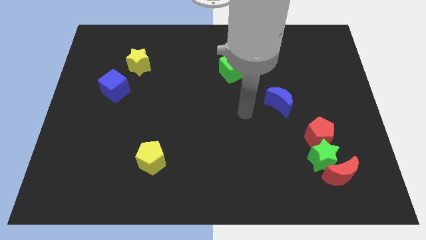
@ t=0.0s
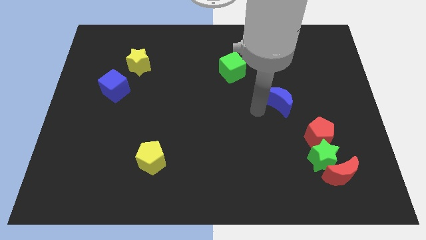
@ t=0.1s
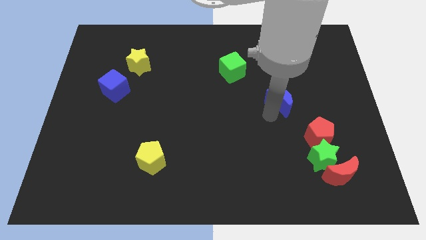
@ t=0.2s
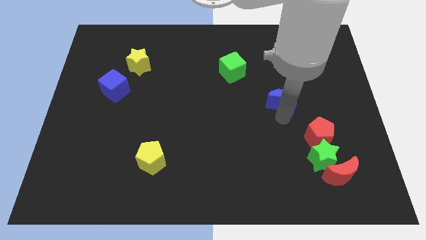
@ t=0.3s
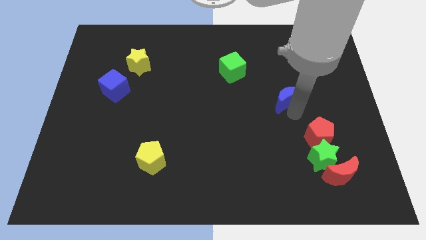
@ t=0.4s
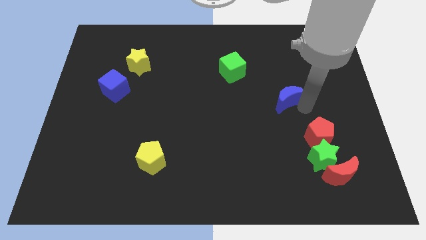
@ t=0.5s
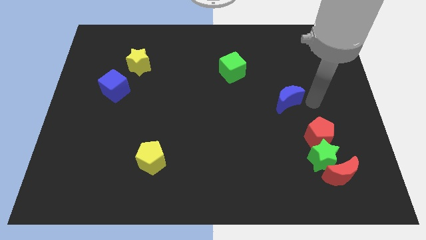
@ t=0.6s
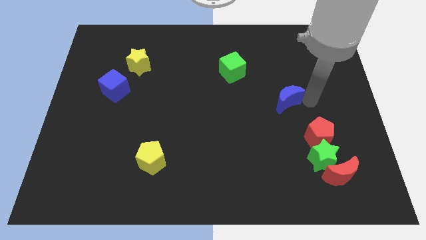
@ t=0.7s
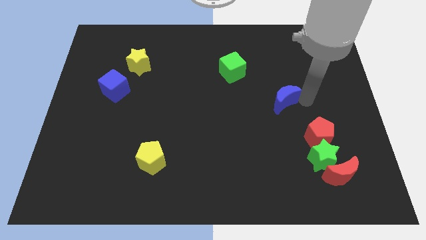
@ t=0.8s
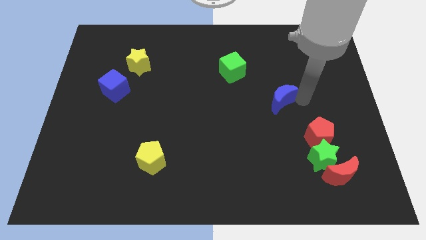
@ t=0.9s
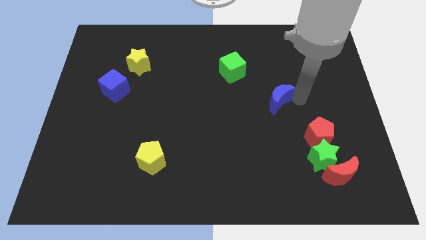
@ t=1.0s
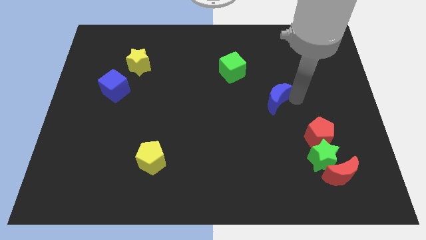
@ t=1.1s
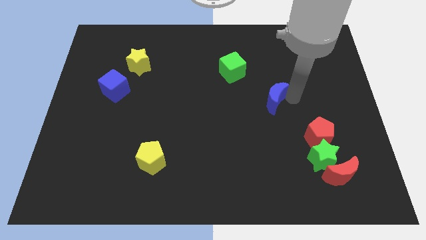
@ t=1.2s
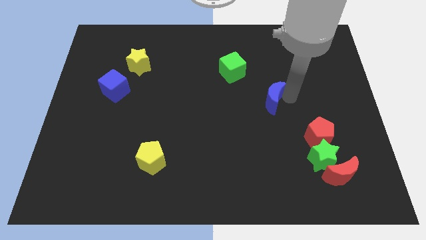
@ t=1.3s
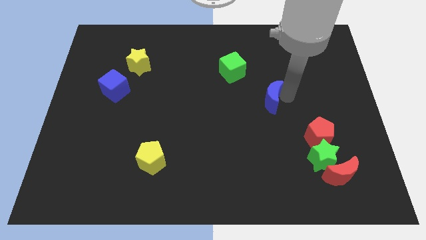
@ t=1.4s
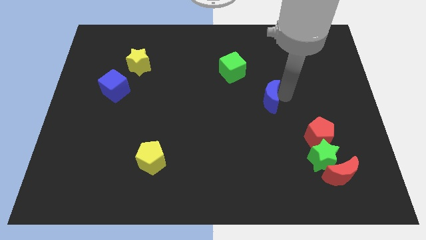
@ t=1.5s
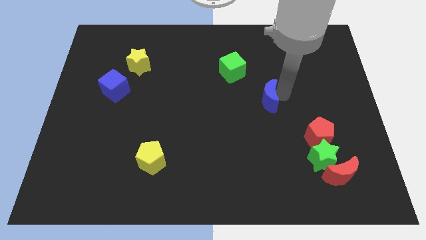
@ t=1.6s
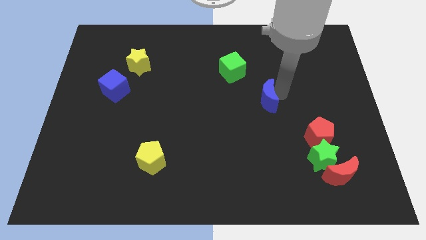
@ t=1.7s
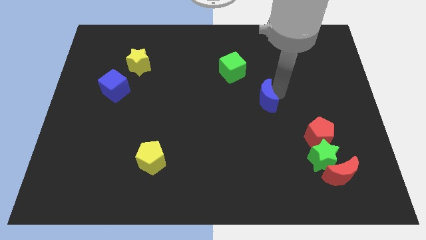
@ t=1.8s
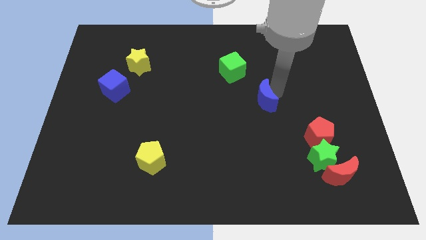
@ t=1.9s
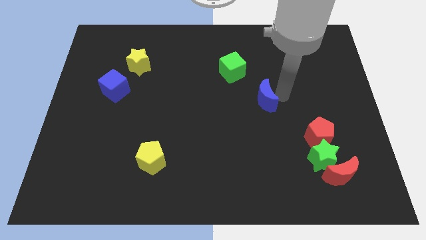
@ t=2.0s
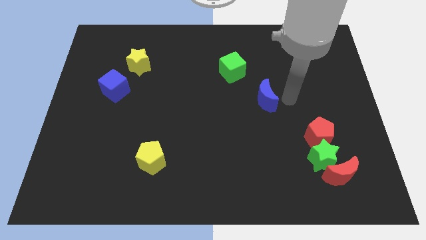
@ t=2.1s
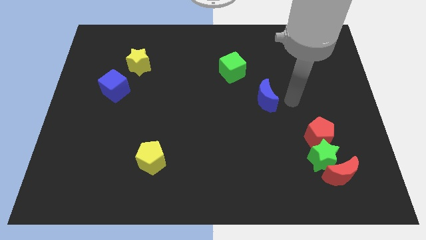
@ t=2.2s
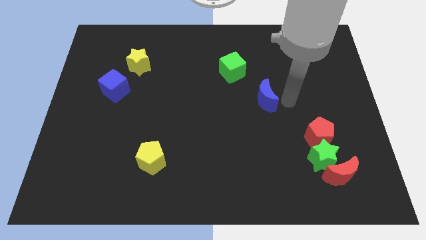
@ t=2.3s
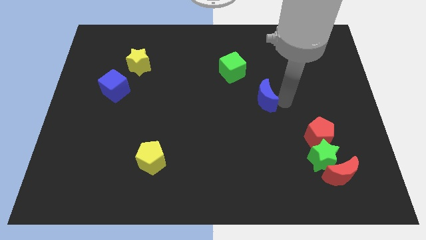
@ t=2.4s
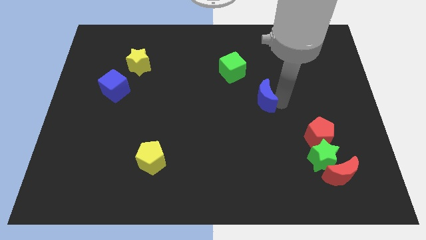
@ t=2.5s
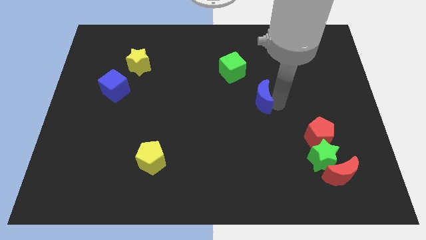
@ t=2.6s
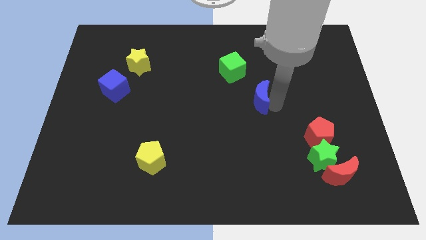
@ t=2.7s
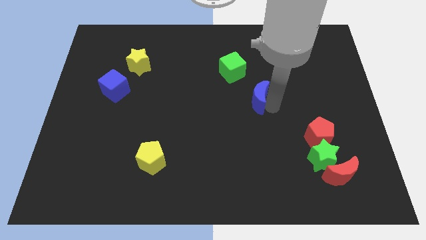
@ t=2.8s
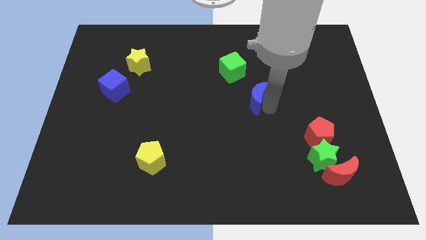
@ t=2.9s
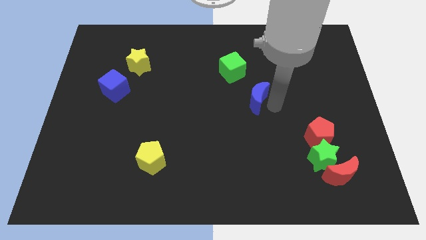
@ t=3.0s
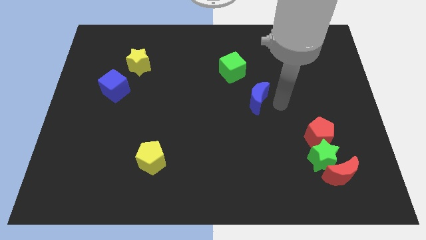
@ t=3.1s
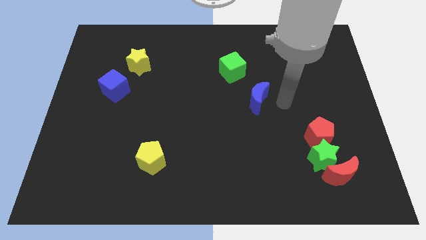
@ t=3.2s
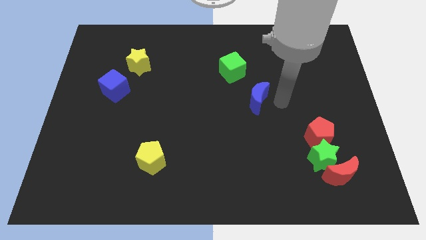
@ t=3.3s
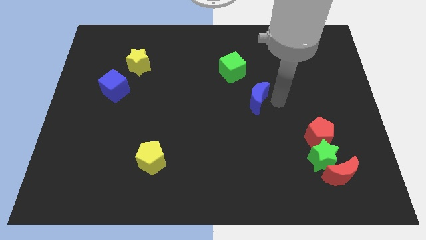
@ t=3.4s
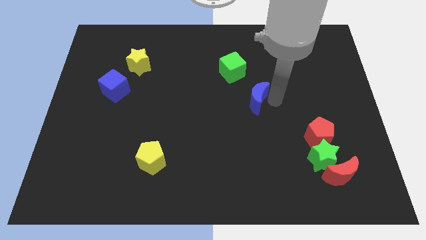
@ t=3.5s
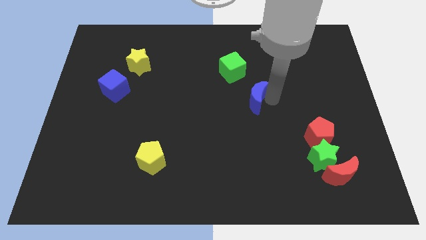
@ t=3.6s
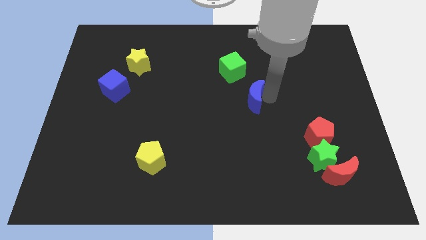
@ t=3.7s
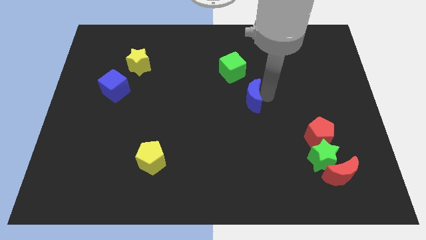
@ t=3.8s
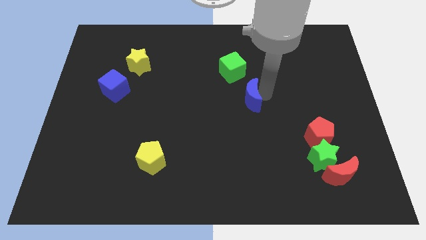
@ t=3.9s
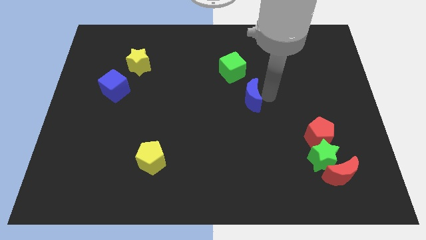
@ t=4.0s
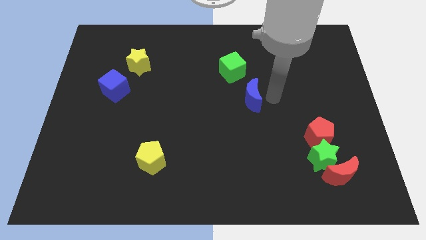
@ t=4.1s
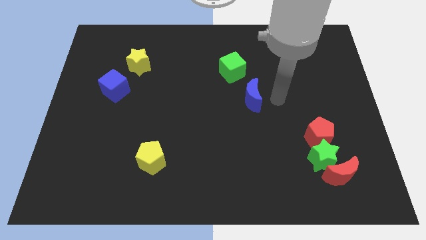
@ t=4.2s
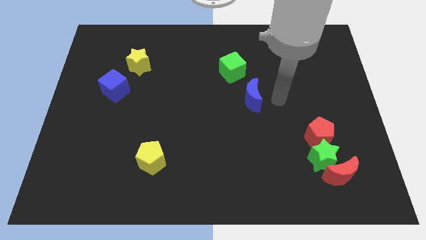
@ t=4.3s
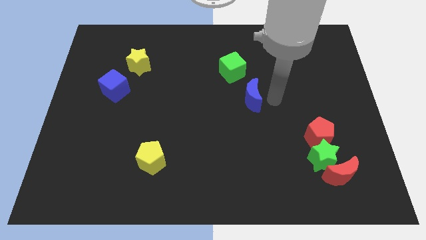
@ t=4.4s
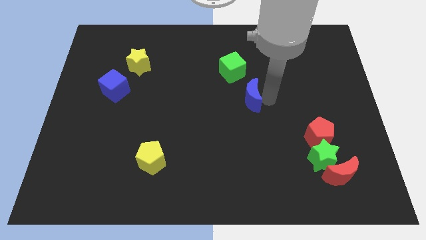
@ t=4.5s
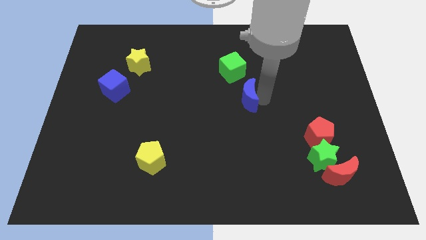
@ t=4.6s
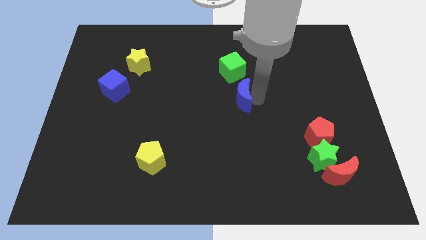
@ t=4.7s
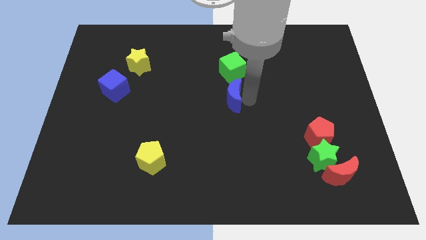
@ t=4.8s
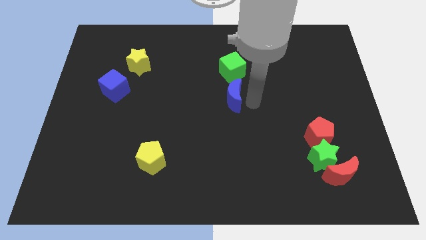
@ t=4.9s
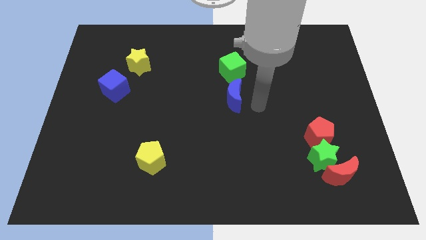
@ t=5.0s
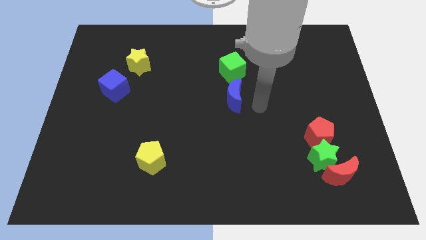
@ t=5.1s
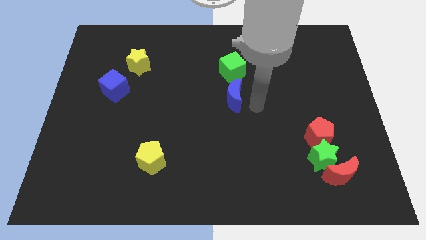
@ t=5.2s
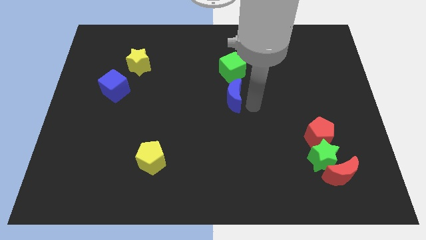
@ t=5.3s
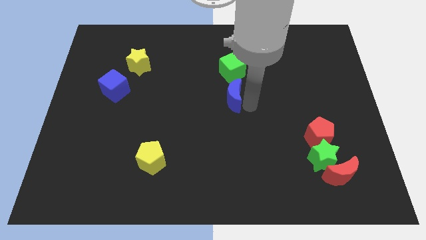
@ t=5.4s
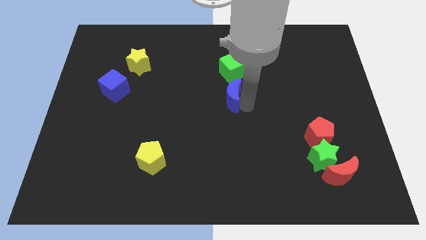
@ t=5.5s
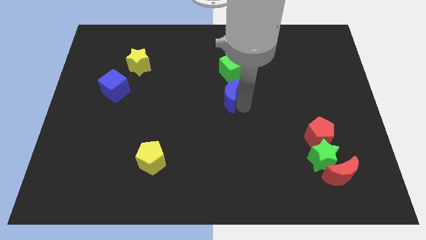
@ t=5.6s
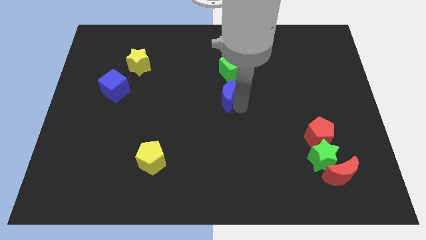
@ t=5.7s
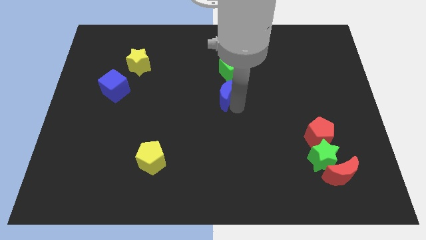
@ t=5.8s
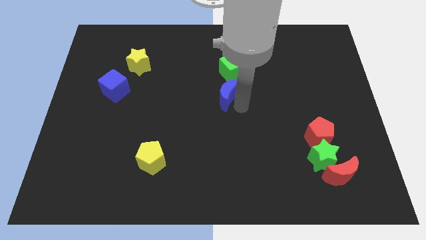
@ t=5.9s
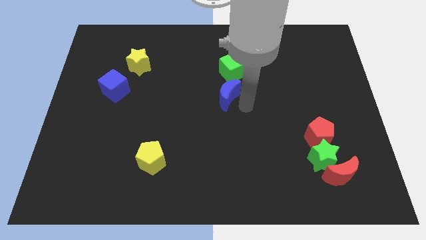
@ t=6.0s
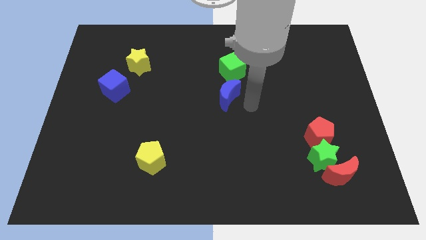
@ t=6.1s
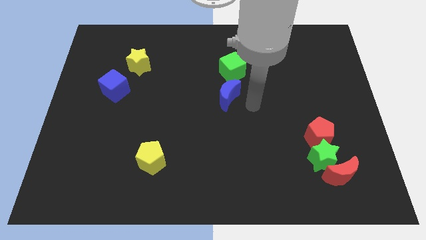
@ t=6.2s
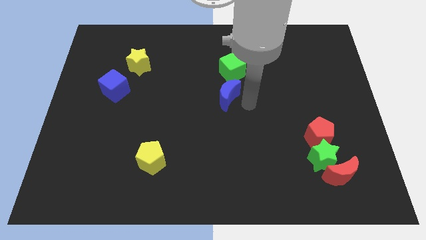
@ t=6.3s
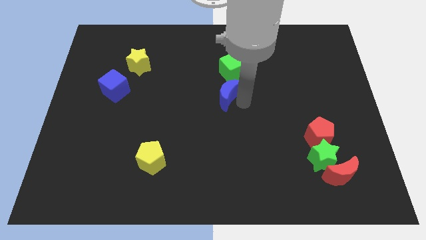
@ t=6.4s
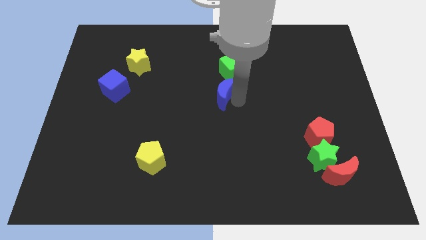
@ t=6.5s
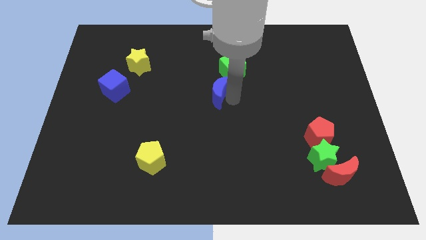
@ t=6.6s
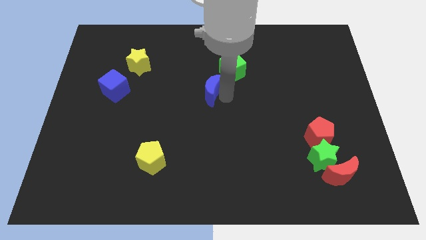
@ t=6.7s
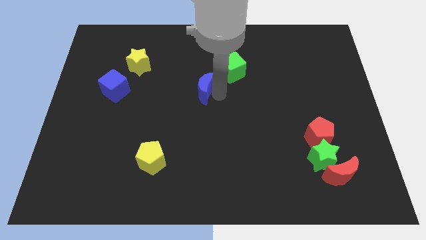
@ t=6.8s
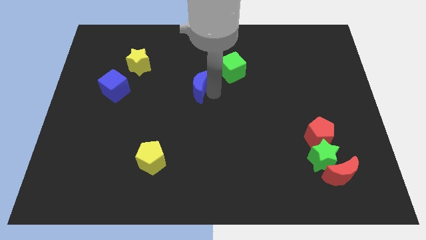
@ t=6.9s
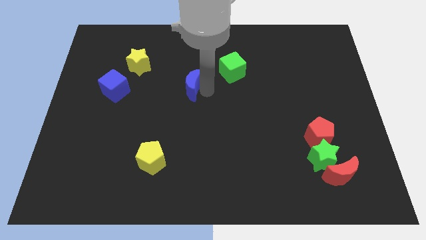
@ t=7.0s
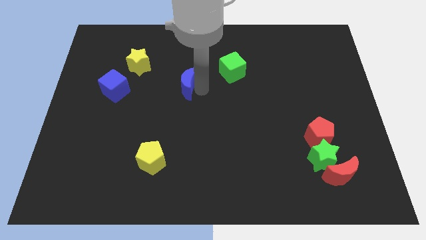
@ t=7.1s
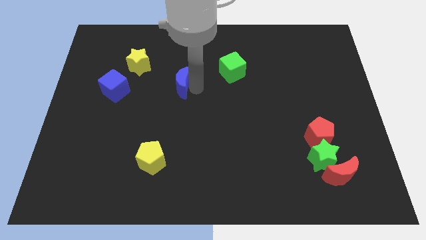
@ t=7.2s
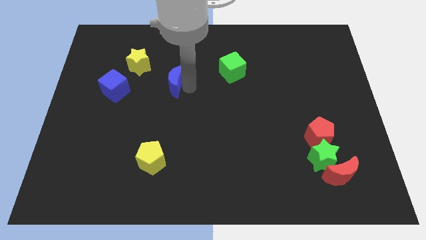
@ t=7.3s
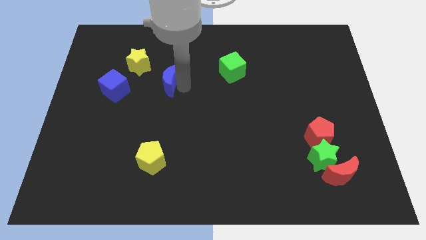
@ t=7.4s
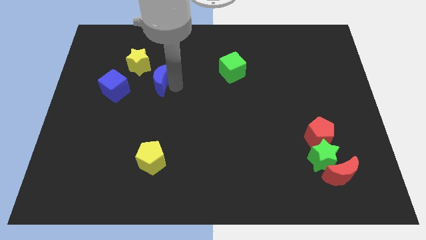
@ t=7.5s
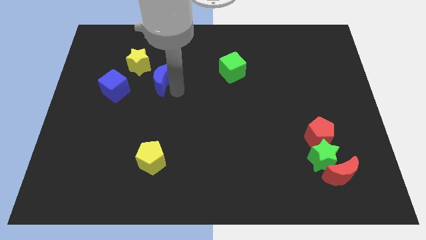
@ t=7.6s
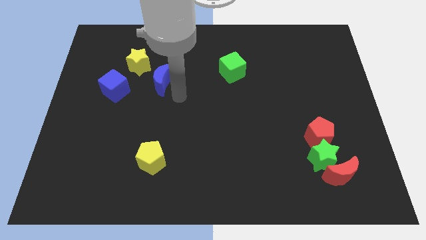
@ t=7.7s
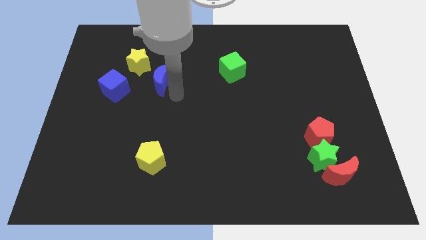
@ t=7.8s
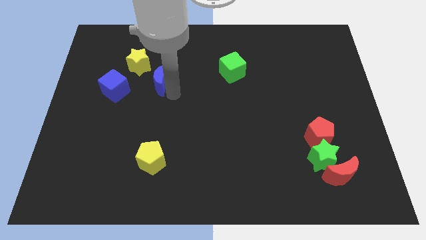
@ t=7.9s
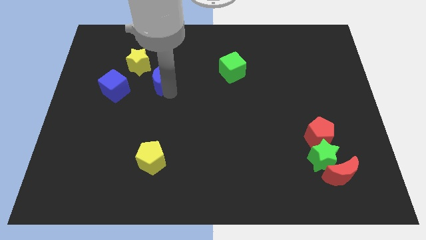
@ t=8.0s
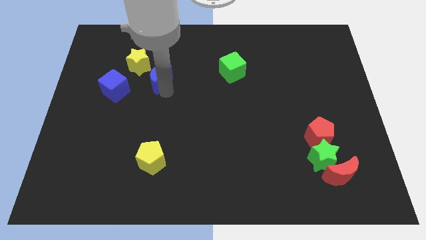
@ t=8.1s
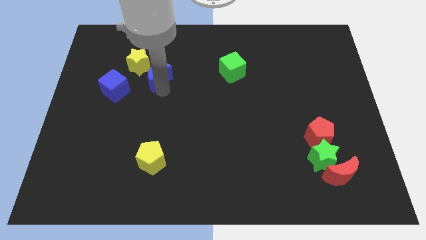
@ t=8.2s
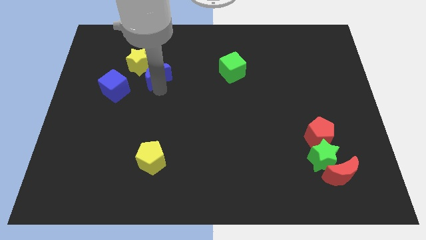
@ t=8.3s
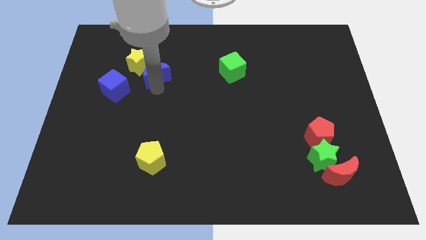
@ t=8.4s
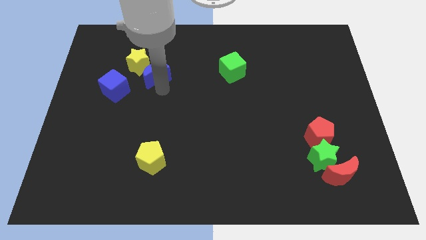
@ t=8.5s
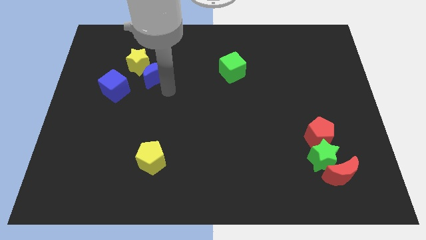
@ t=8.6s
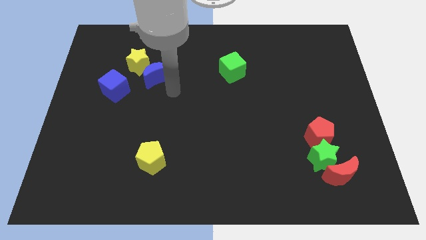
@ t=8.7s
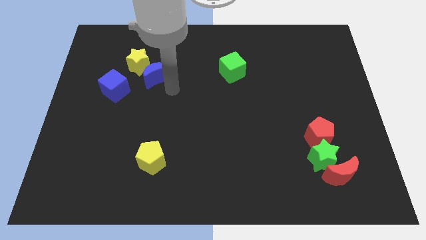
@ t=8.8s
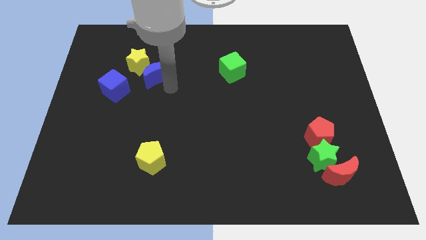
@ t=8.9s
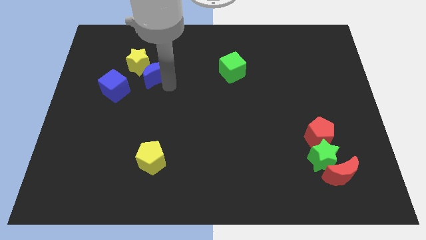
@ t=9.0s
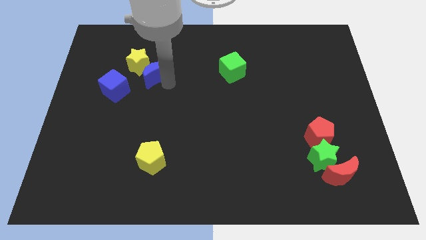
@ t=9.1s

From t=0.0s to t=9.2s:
move the blue moon to the yellow star
